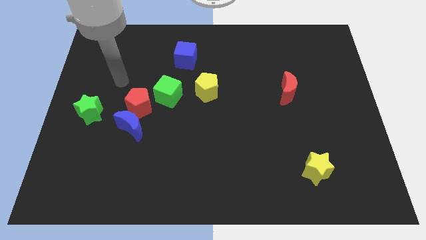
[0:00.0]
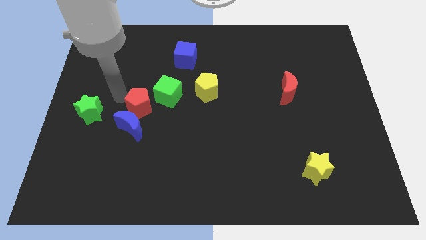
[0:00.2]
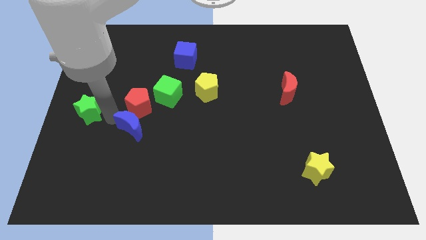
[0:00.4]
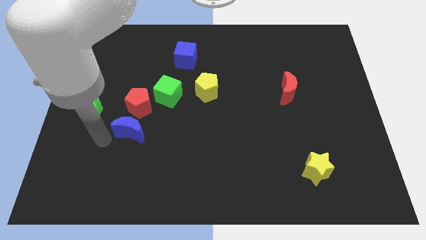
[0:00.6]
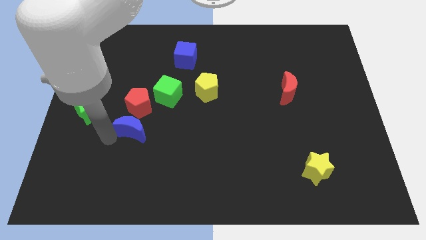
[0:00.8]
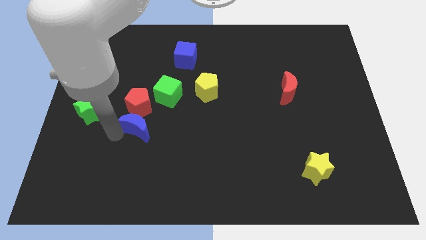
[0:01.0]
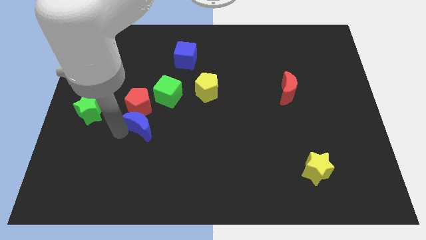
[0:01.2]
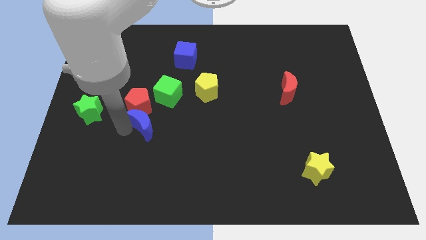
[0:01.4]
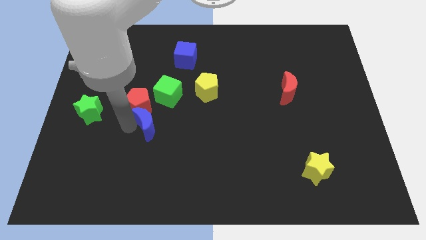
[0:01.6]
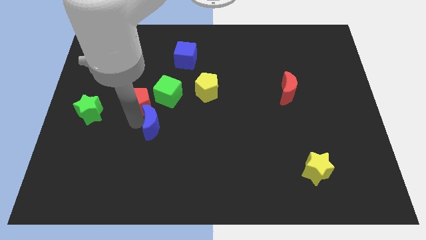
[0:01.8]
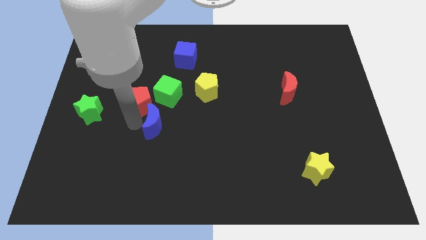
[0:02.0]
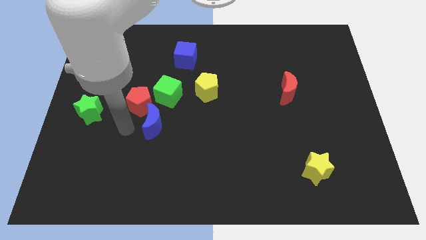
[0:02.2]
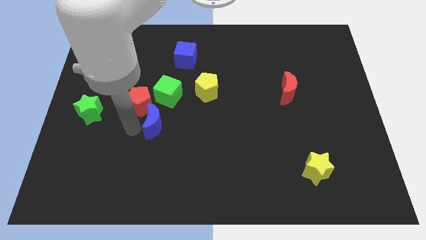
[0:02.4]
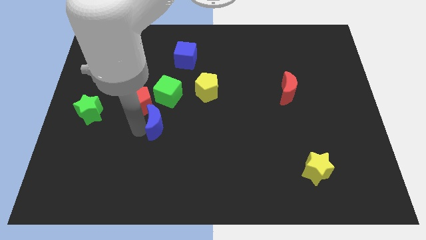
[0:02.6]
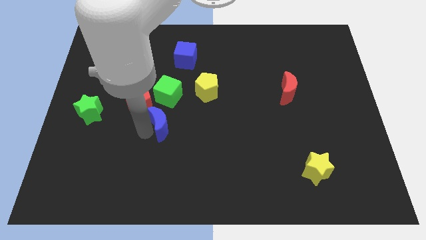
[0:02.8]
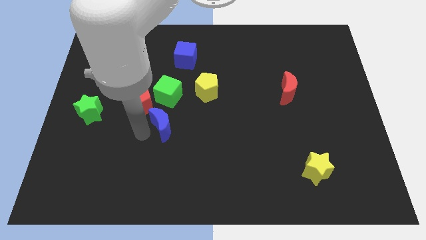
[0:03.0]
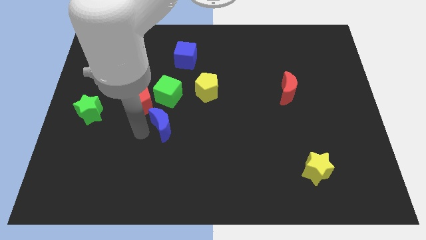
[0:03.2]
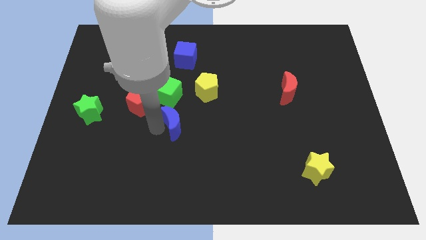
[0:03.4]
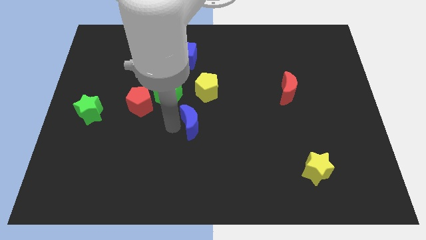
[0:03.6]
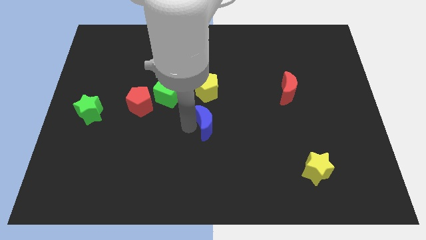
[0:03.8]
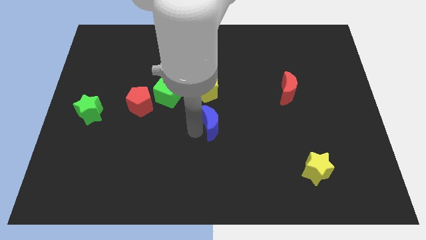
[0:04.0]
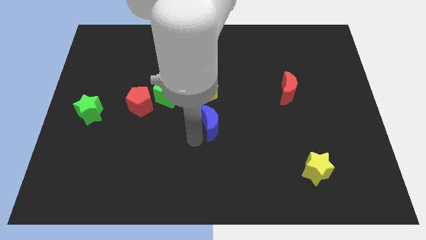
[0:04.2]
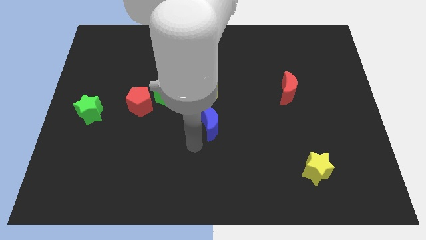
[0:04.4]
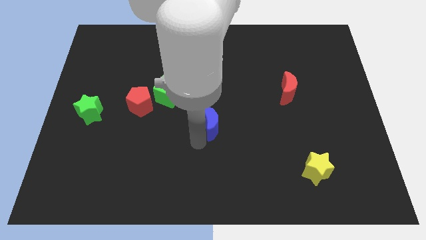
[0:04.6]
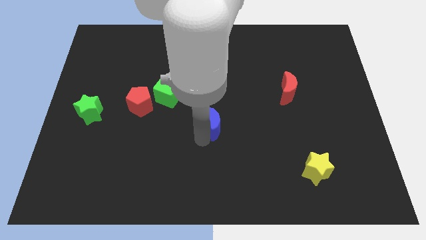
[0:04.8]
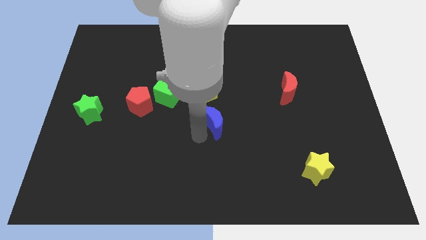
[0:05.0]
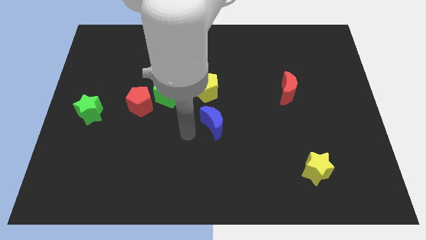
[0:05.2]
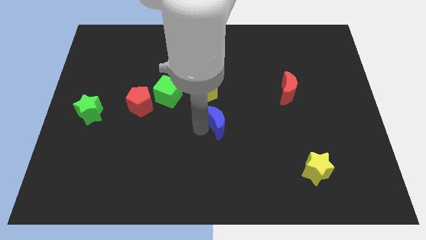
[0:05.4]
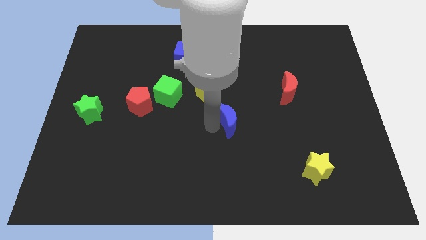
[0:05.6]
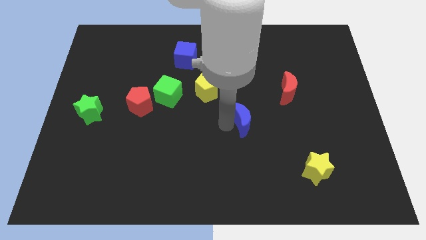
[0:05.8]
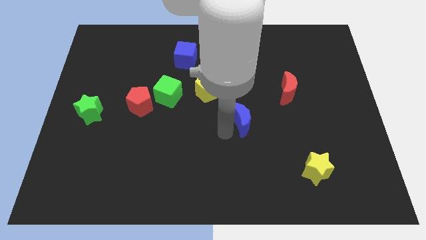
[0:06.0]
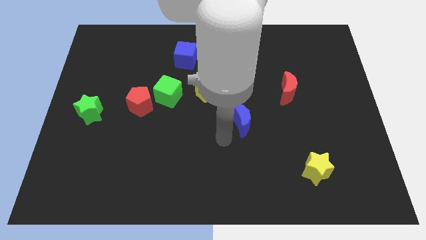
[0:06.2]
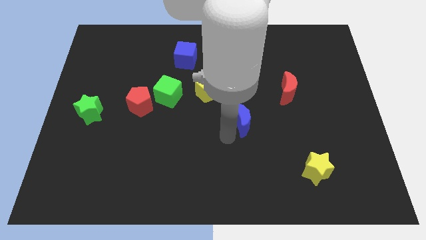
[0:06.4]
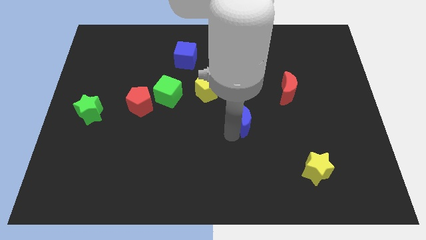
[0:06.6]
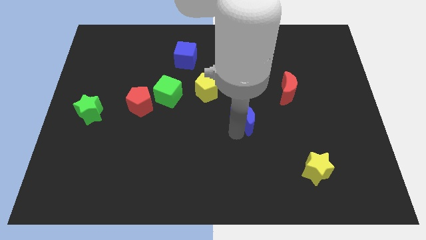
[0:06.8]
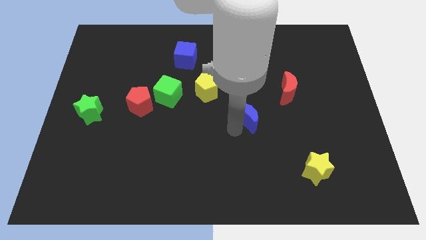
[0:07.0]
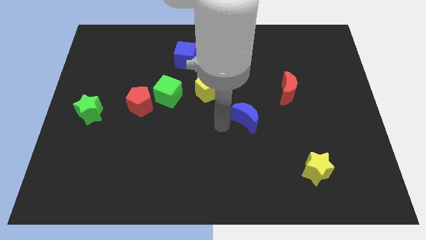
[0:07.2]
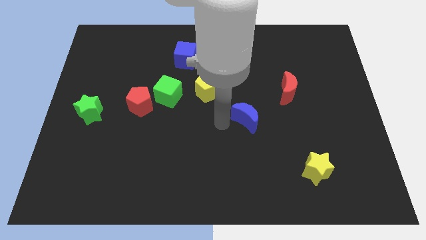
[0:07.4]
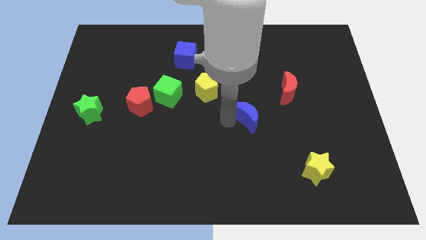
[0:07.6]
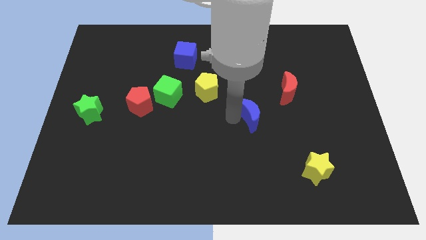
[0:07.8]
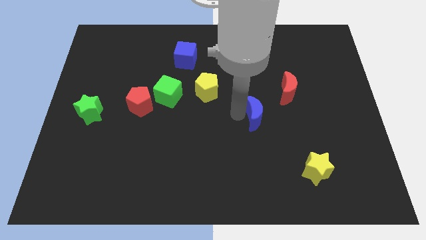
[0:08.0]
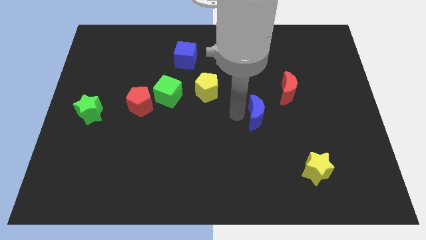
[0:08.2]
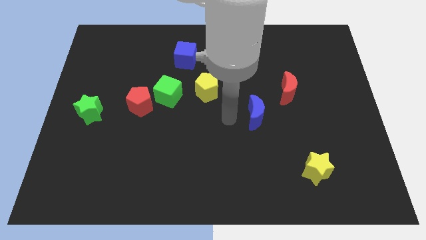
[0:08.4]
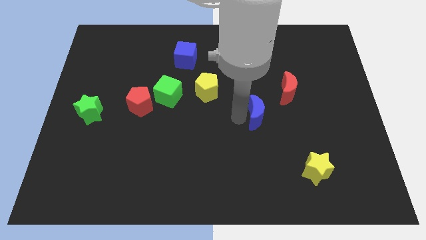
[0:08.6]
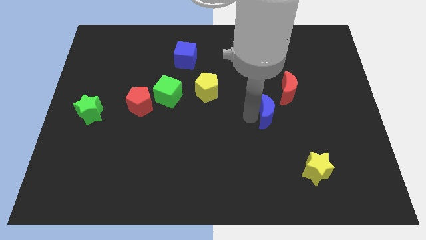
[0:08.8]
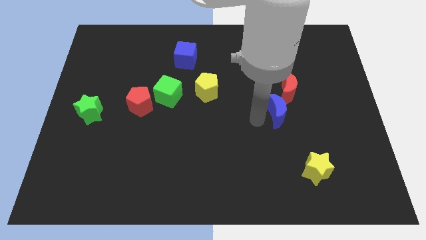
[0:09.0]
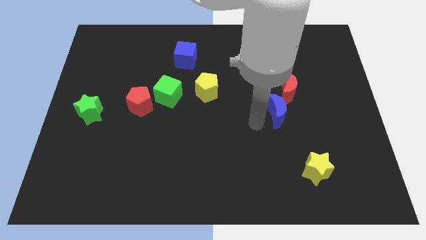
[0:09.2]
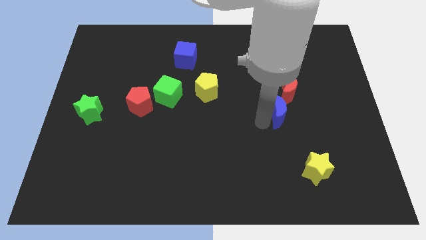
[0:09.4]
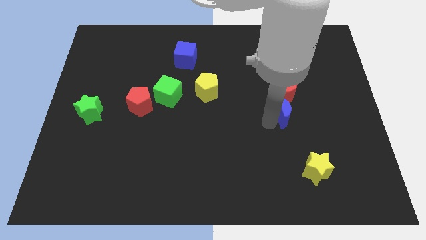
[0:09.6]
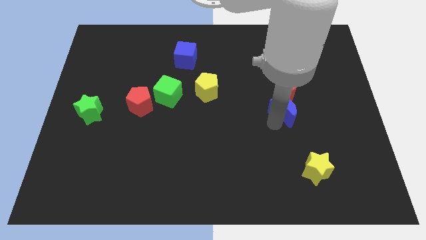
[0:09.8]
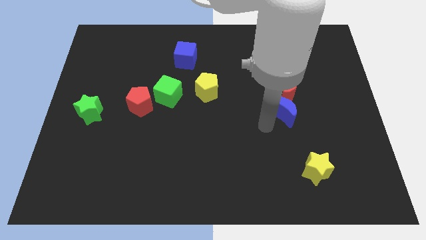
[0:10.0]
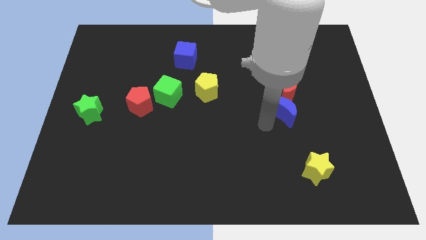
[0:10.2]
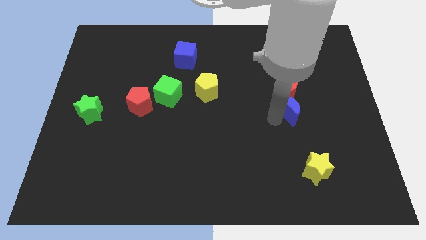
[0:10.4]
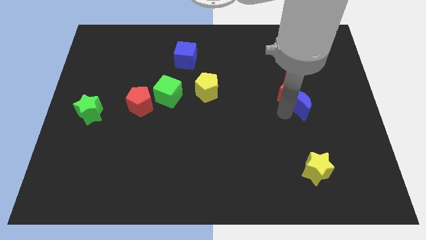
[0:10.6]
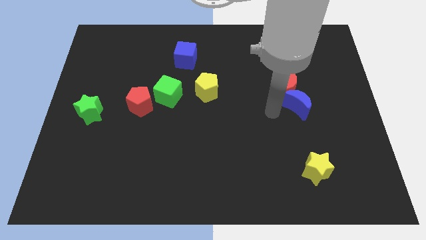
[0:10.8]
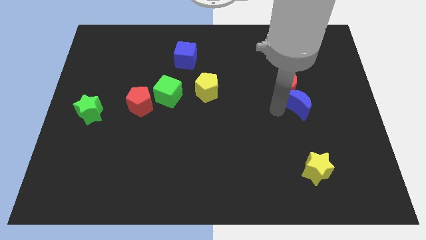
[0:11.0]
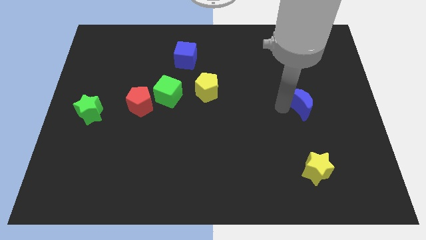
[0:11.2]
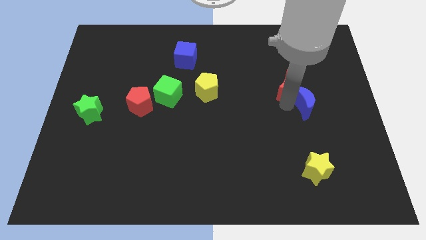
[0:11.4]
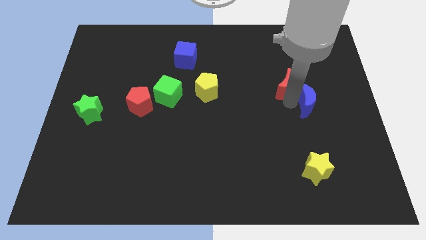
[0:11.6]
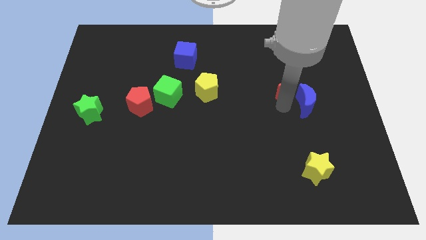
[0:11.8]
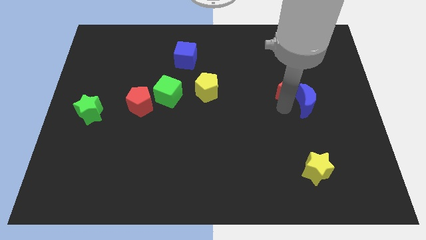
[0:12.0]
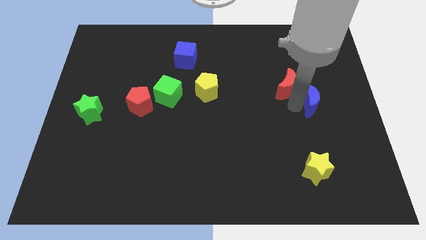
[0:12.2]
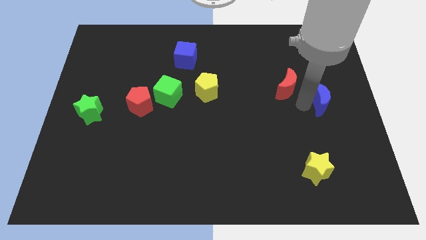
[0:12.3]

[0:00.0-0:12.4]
slide the blue moon to the center right
